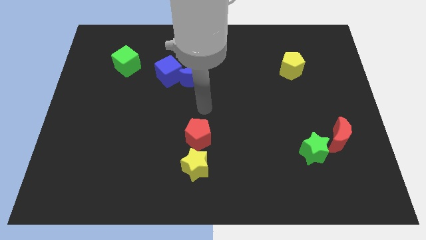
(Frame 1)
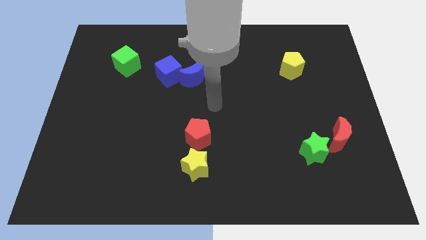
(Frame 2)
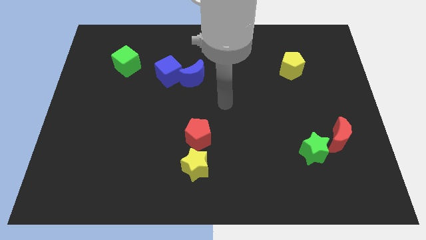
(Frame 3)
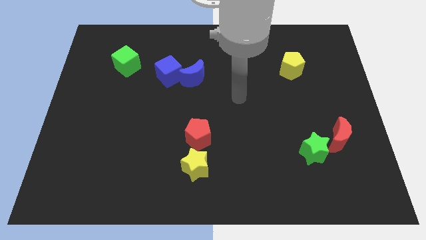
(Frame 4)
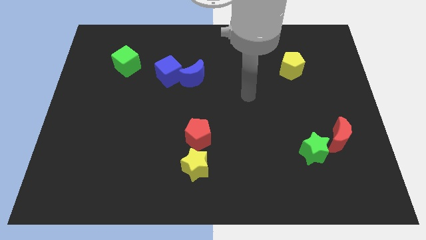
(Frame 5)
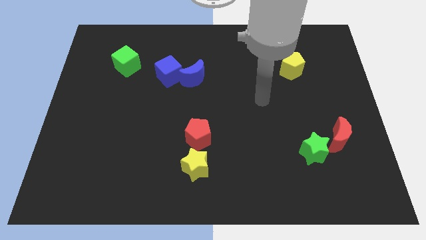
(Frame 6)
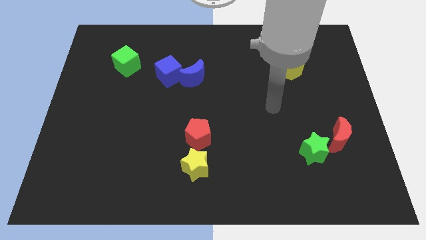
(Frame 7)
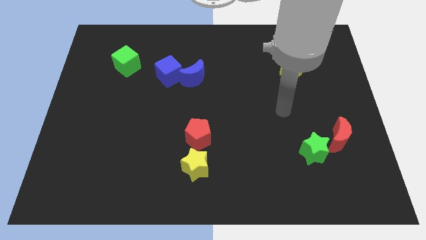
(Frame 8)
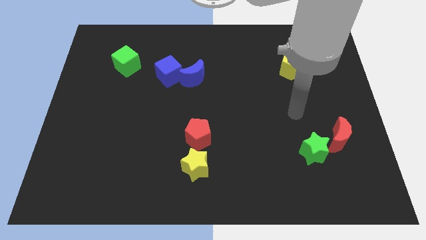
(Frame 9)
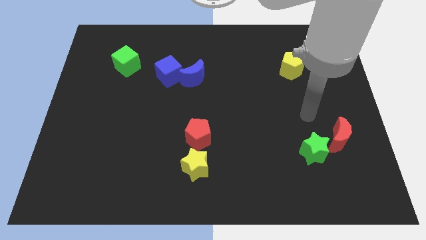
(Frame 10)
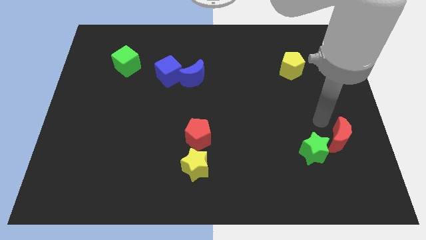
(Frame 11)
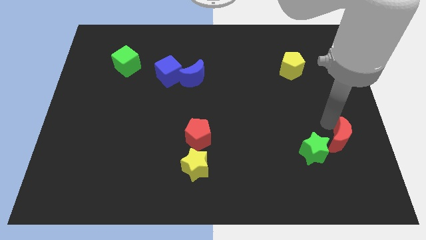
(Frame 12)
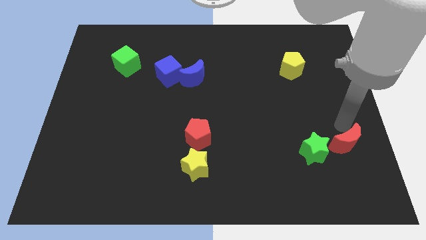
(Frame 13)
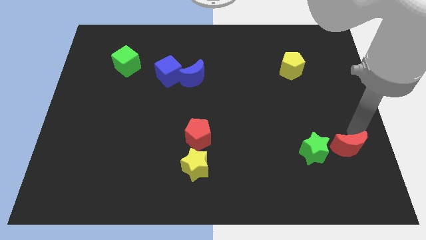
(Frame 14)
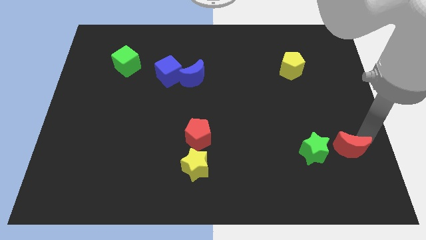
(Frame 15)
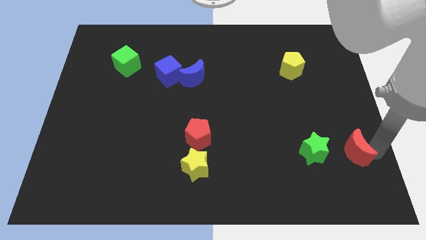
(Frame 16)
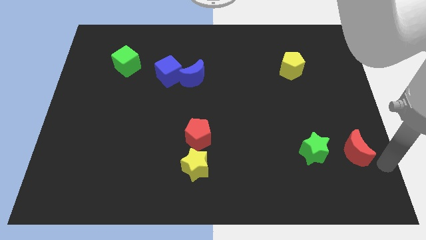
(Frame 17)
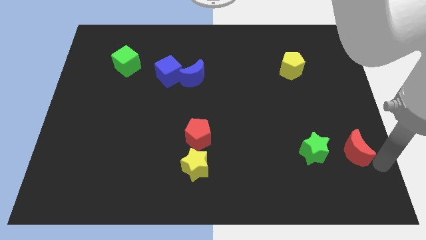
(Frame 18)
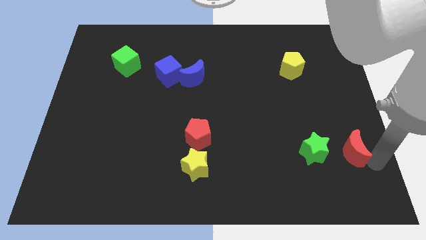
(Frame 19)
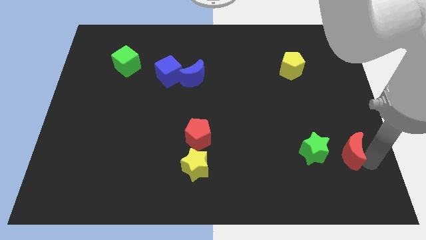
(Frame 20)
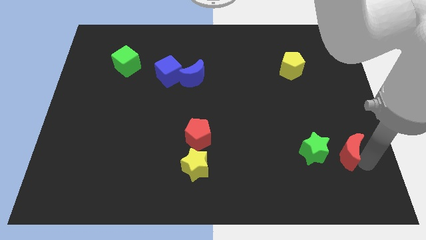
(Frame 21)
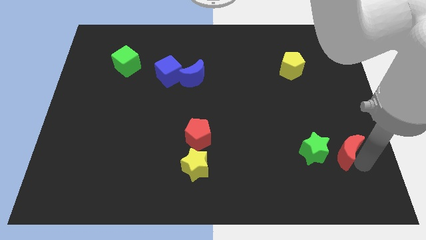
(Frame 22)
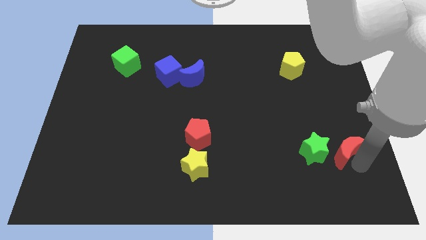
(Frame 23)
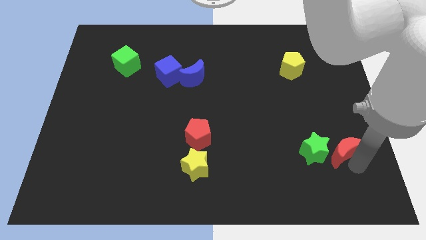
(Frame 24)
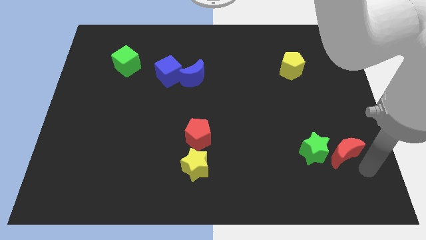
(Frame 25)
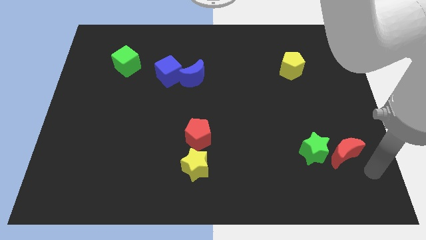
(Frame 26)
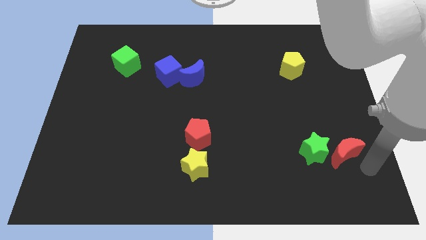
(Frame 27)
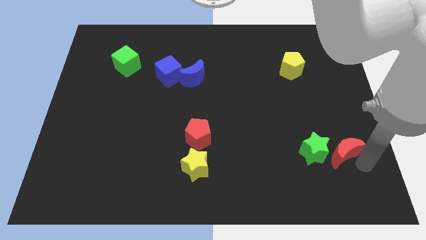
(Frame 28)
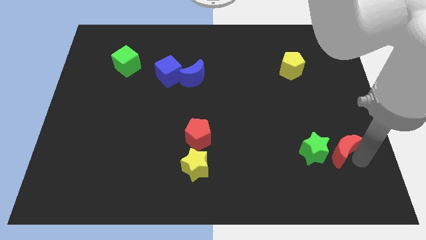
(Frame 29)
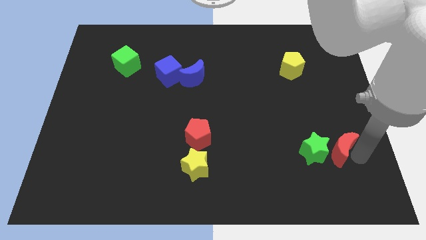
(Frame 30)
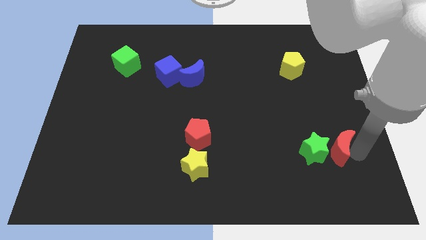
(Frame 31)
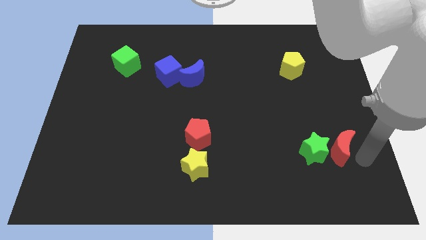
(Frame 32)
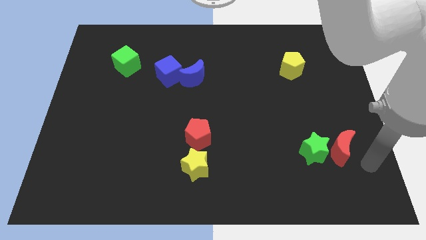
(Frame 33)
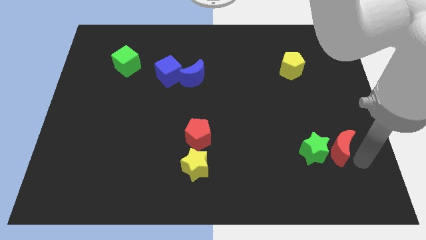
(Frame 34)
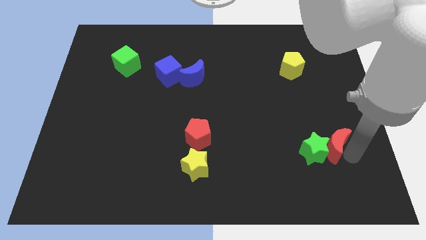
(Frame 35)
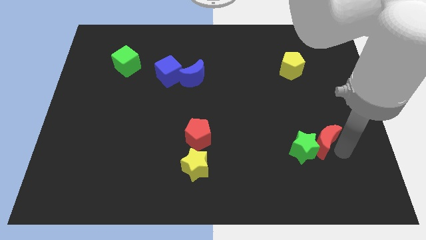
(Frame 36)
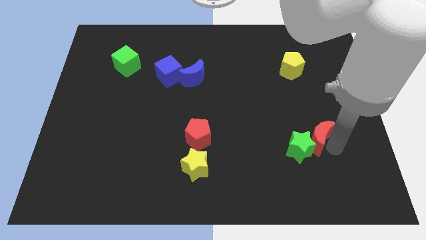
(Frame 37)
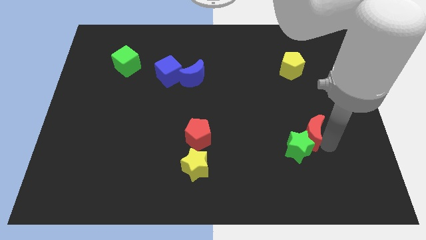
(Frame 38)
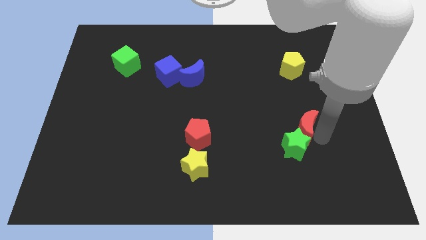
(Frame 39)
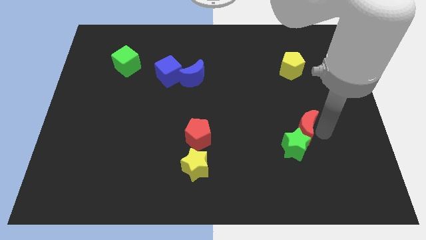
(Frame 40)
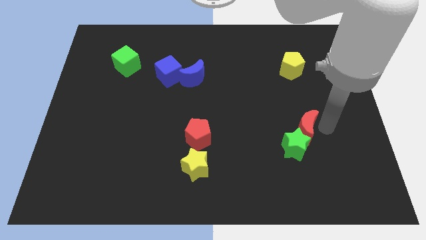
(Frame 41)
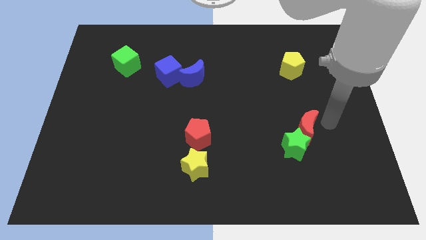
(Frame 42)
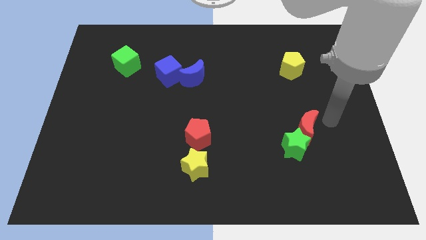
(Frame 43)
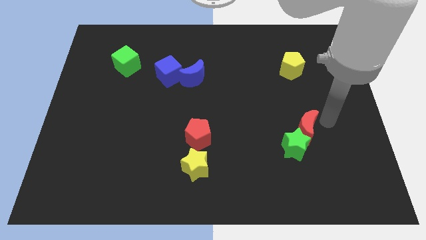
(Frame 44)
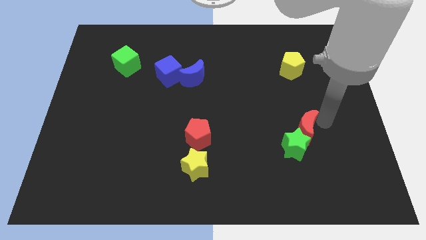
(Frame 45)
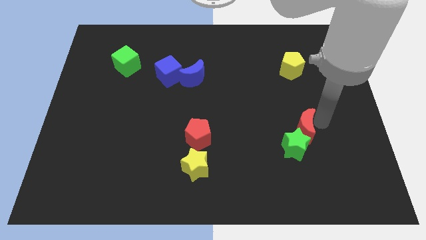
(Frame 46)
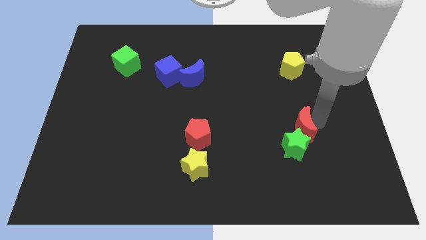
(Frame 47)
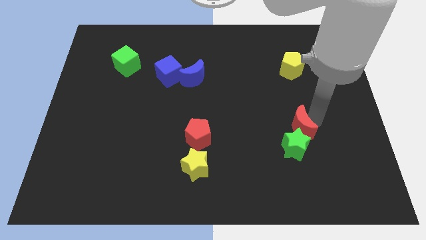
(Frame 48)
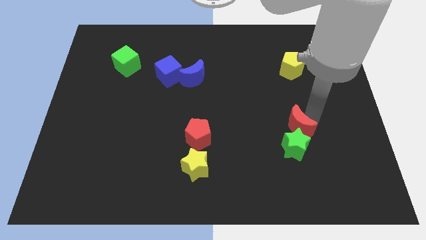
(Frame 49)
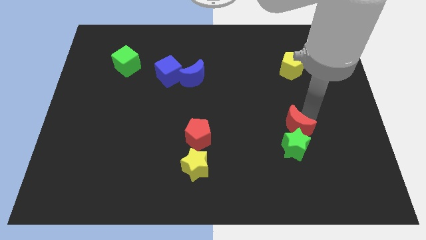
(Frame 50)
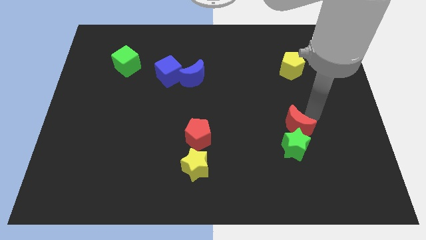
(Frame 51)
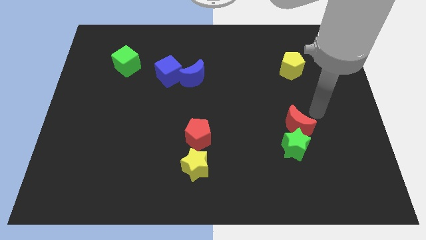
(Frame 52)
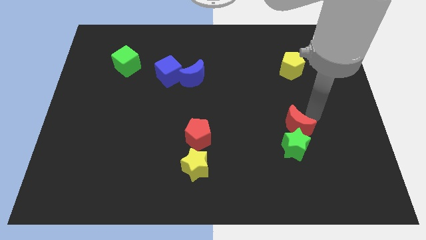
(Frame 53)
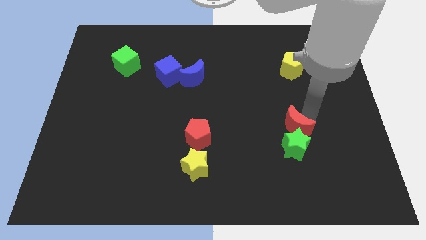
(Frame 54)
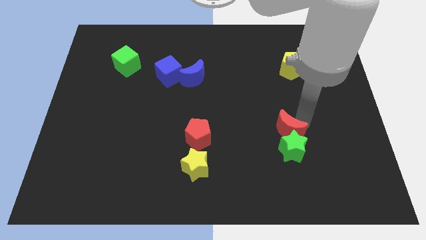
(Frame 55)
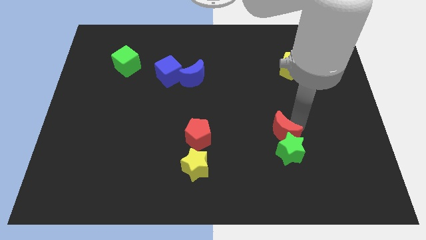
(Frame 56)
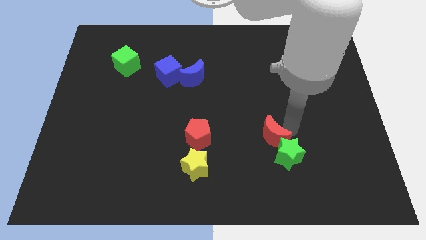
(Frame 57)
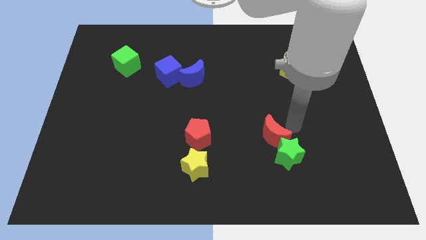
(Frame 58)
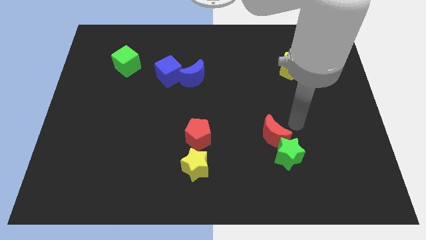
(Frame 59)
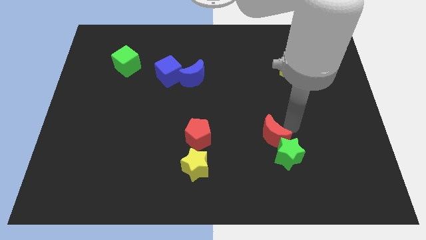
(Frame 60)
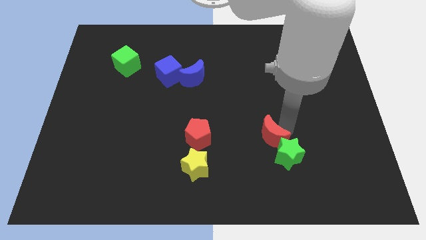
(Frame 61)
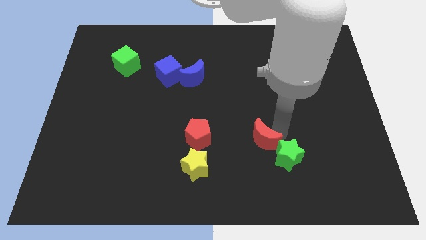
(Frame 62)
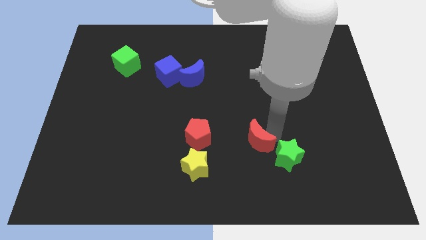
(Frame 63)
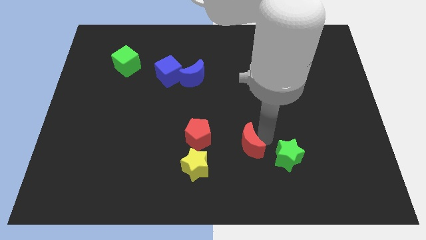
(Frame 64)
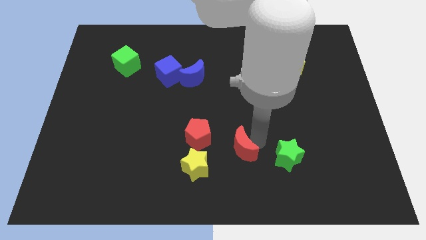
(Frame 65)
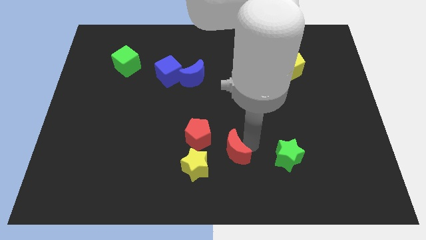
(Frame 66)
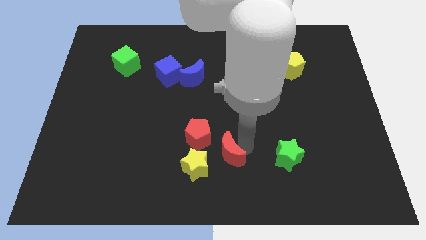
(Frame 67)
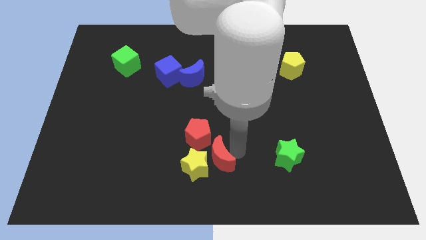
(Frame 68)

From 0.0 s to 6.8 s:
move the red moon towards the yellow star

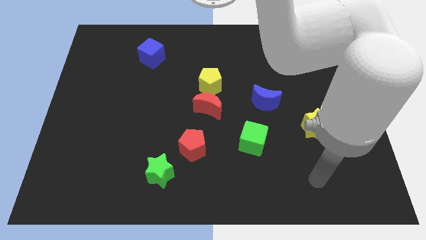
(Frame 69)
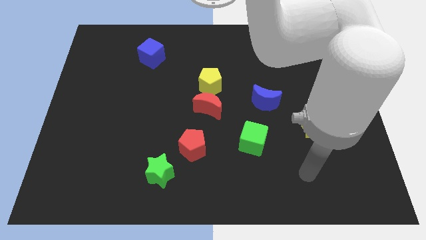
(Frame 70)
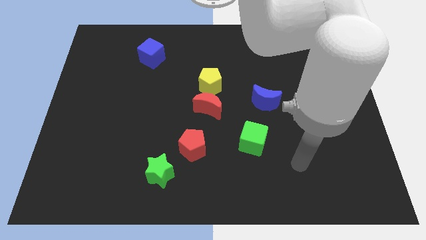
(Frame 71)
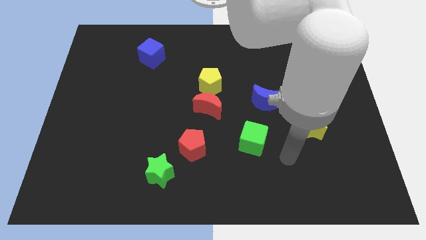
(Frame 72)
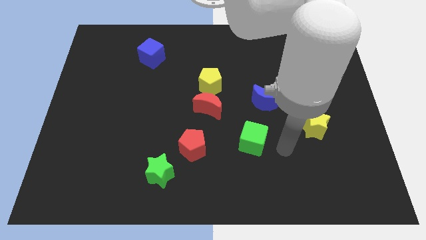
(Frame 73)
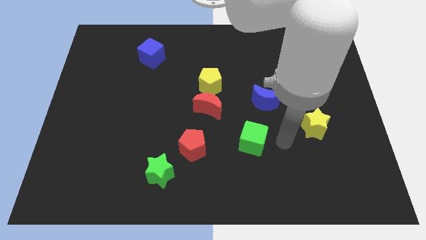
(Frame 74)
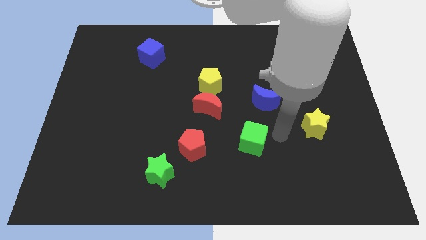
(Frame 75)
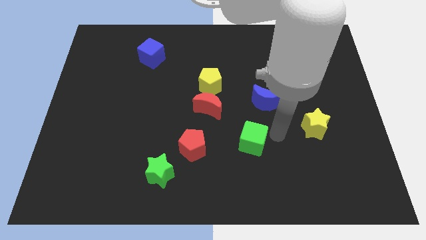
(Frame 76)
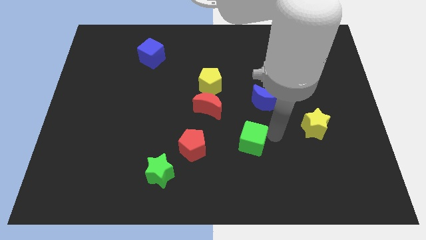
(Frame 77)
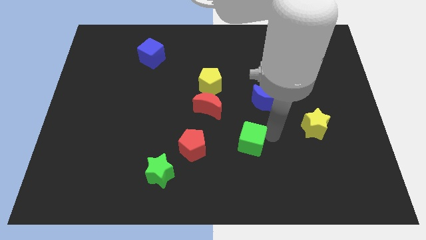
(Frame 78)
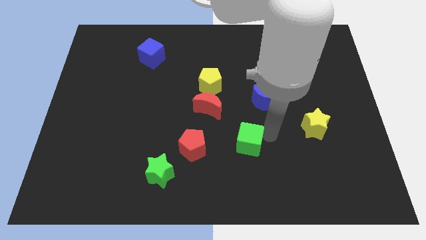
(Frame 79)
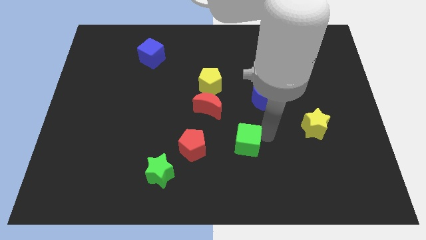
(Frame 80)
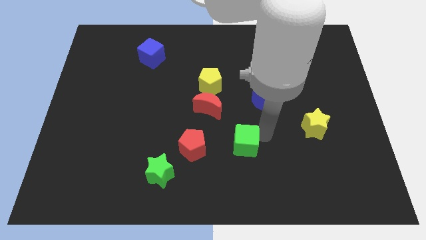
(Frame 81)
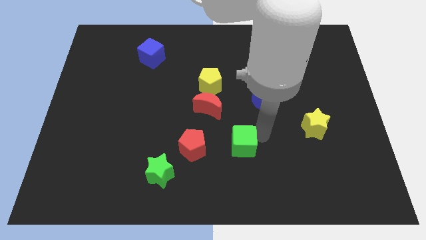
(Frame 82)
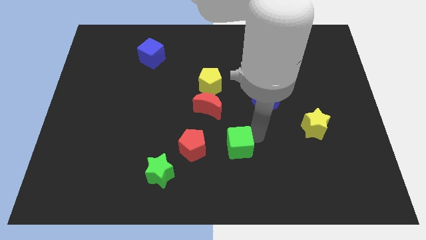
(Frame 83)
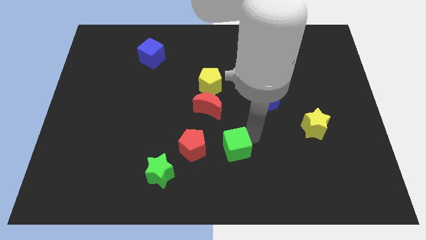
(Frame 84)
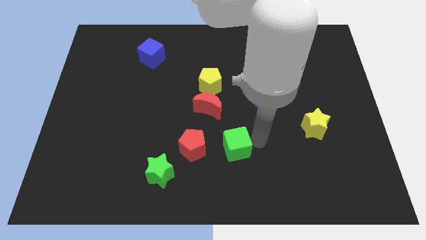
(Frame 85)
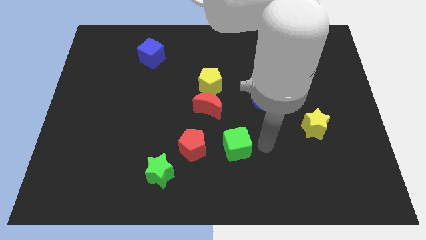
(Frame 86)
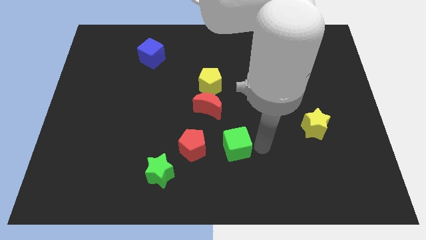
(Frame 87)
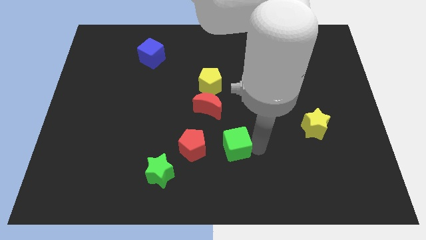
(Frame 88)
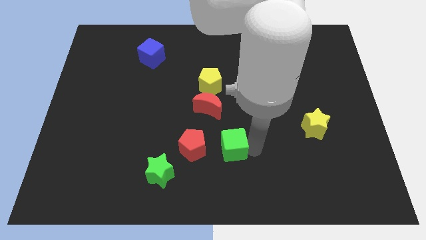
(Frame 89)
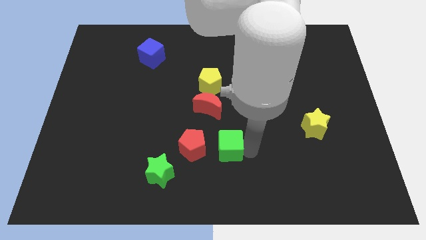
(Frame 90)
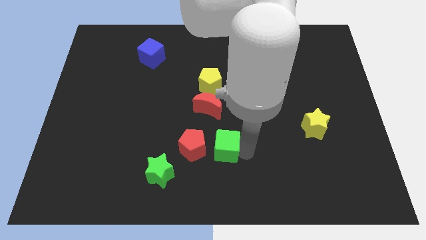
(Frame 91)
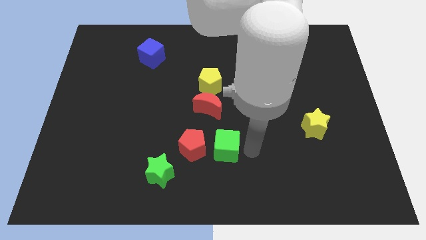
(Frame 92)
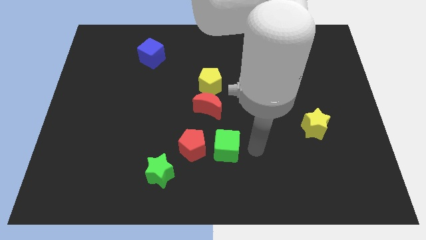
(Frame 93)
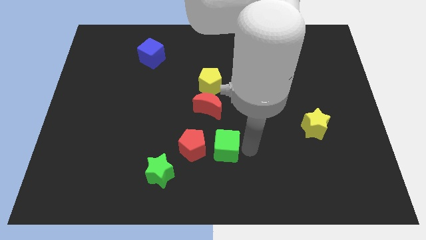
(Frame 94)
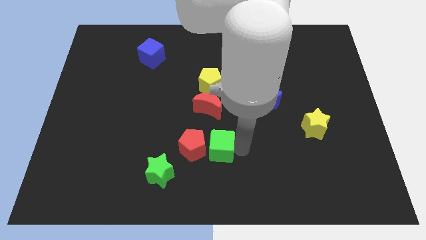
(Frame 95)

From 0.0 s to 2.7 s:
push the green cube next to the red pentagon
